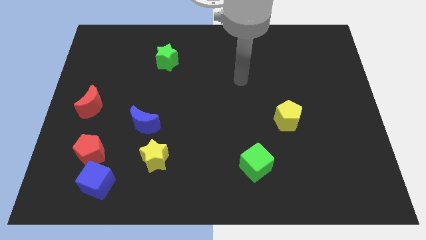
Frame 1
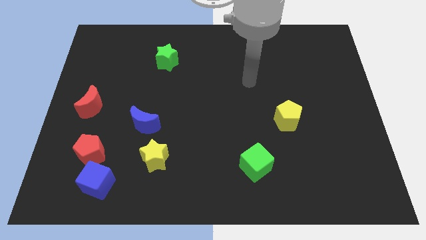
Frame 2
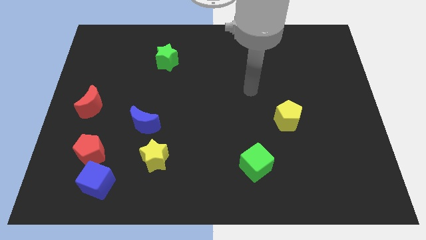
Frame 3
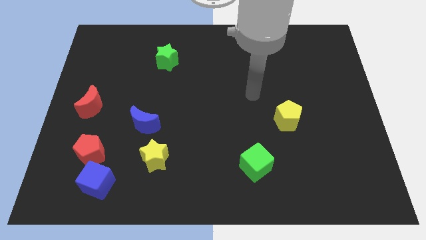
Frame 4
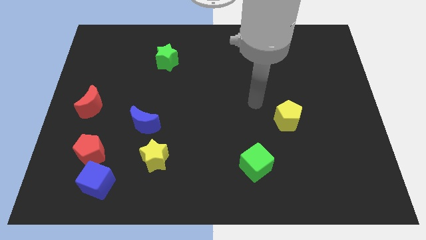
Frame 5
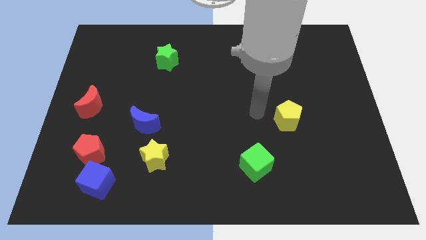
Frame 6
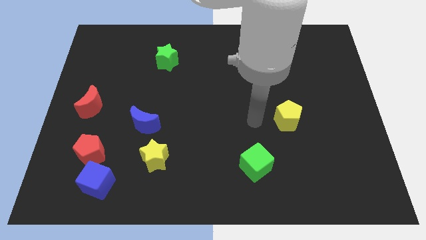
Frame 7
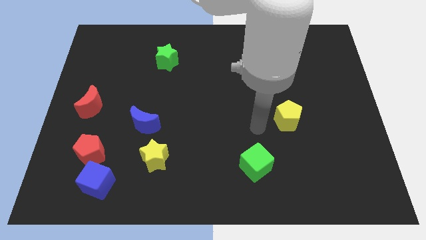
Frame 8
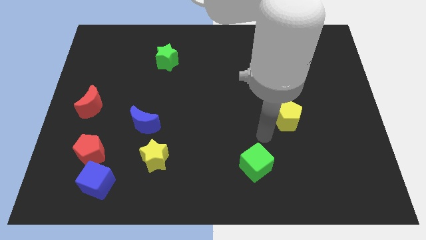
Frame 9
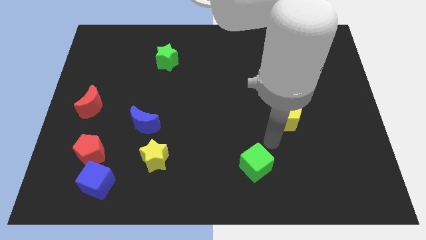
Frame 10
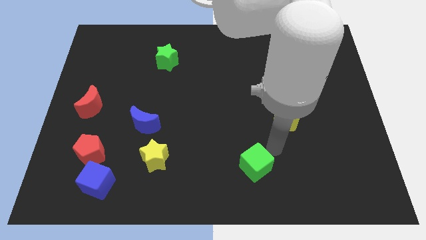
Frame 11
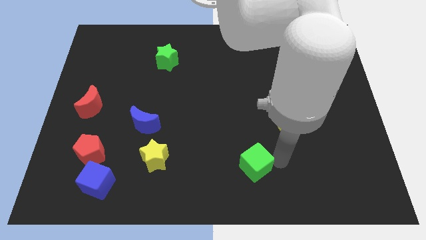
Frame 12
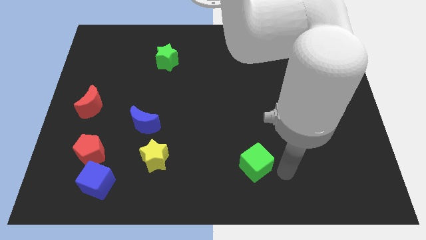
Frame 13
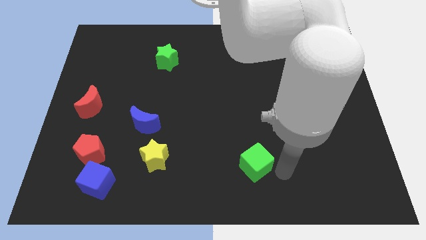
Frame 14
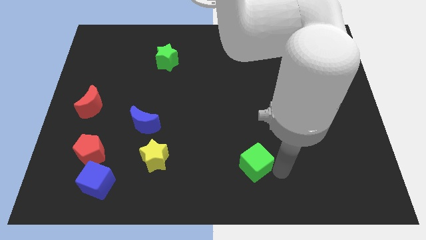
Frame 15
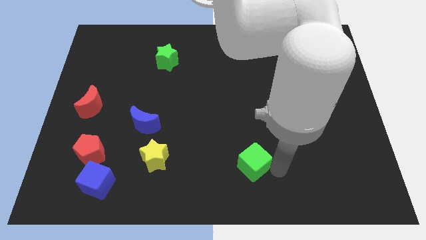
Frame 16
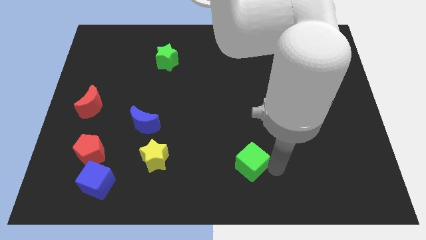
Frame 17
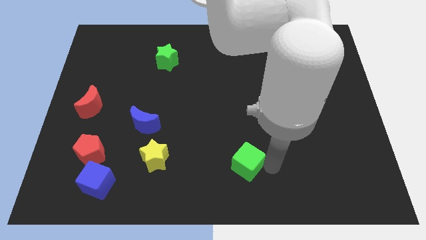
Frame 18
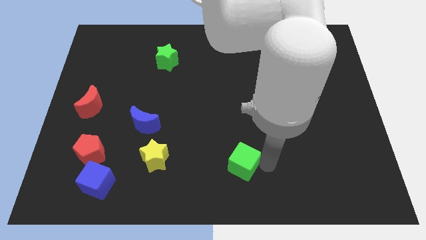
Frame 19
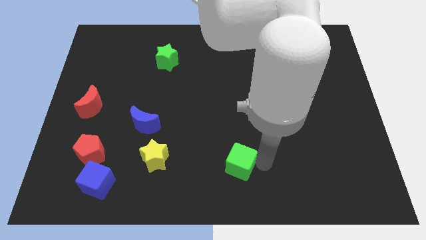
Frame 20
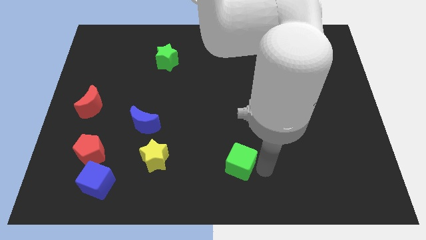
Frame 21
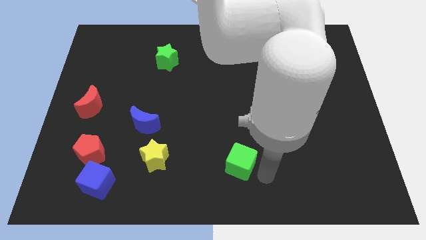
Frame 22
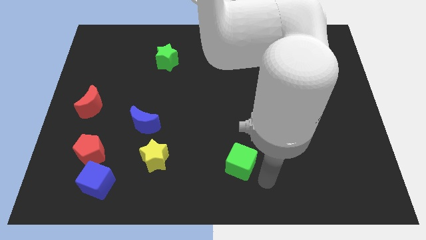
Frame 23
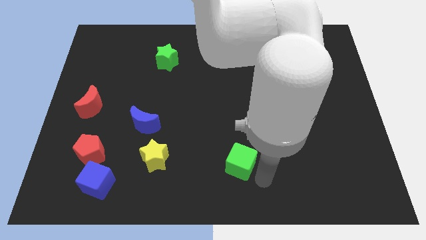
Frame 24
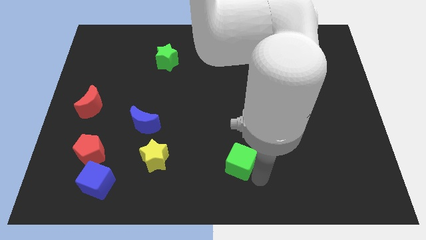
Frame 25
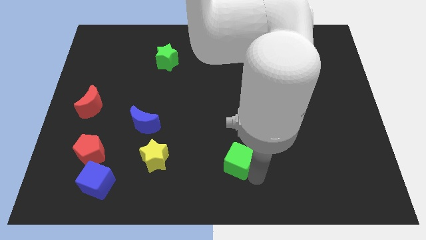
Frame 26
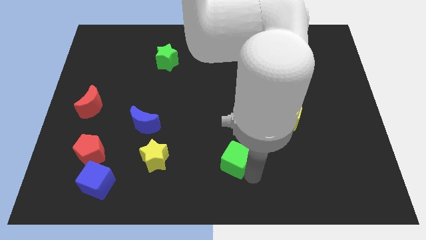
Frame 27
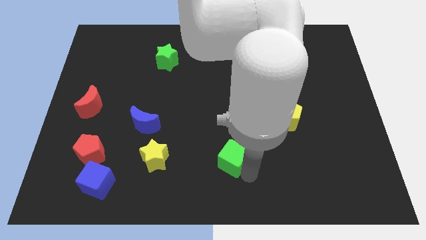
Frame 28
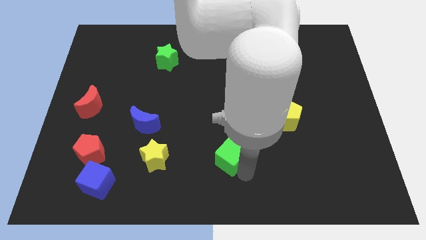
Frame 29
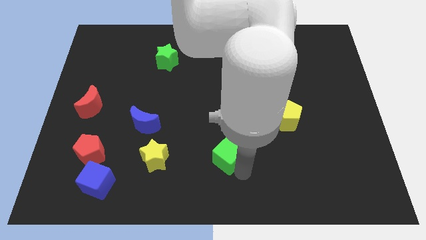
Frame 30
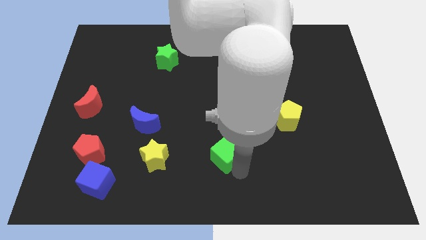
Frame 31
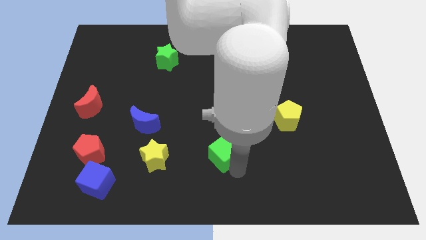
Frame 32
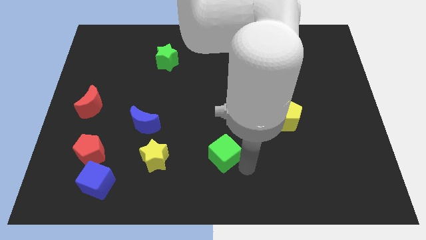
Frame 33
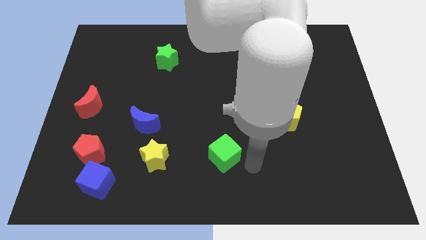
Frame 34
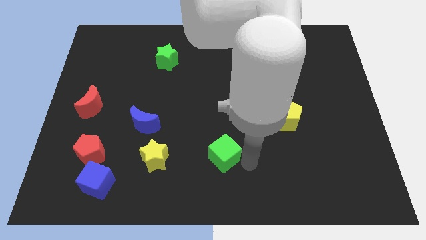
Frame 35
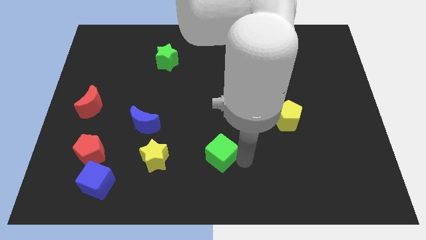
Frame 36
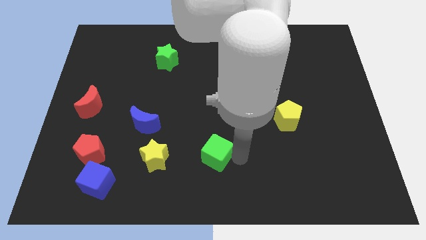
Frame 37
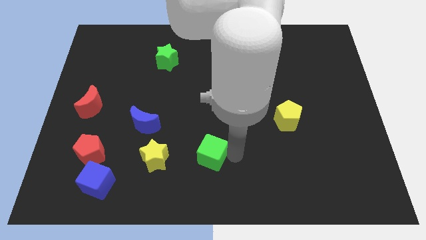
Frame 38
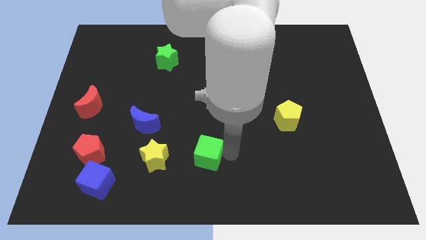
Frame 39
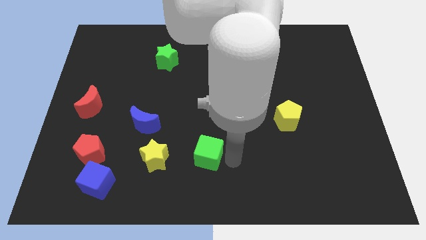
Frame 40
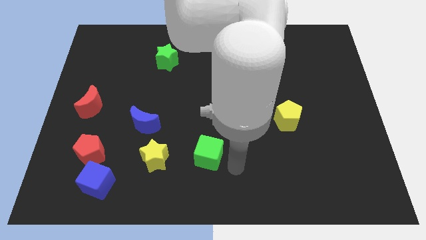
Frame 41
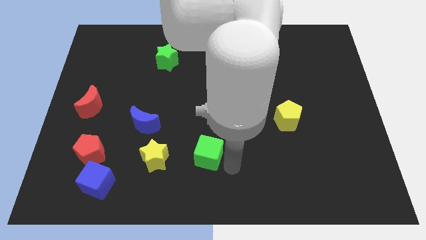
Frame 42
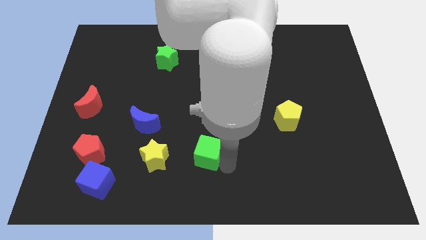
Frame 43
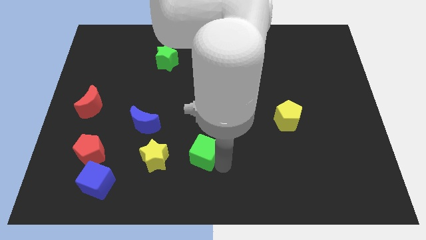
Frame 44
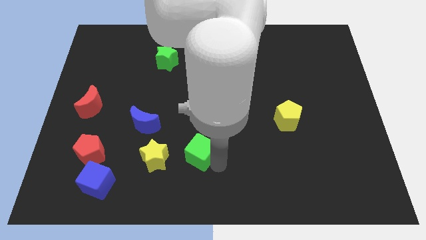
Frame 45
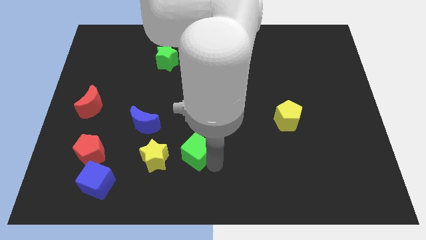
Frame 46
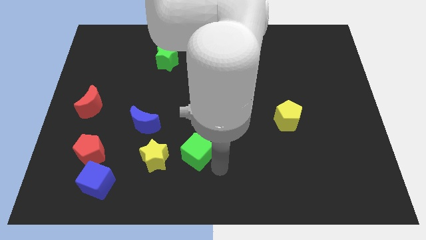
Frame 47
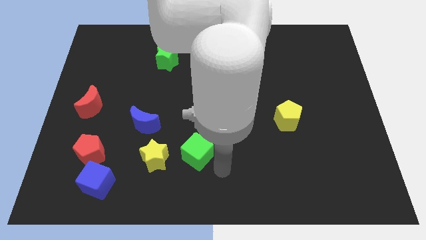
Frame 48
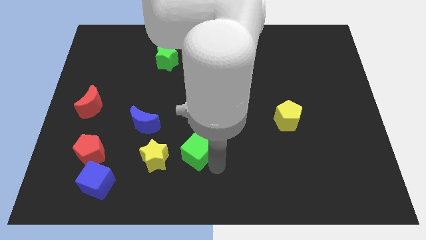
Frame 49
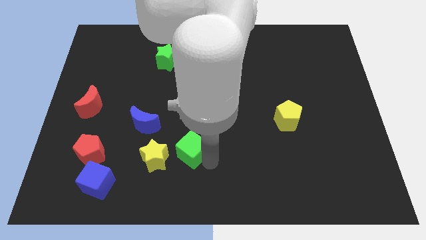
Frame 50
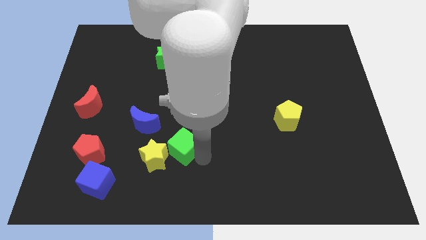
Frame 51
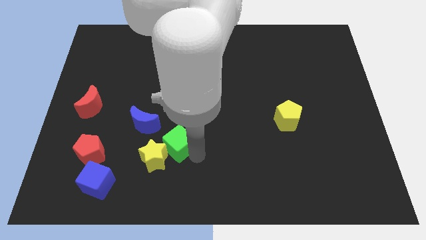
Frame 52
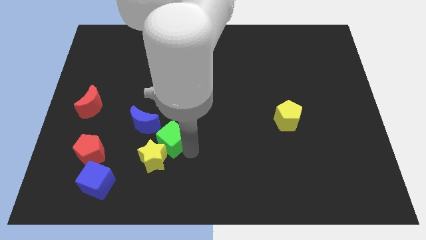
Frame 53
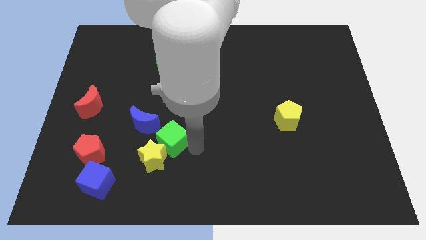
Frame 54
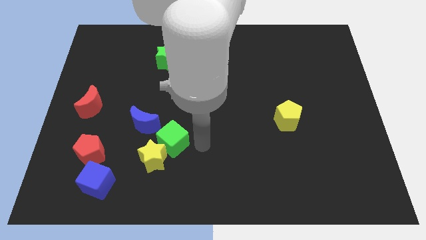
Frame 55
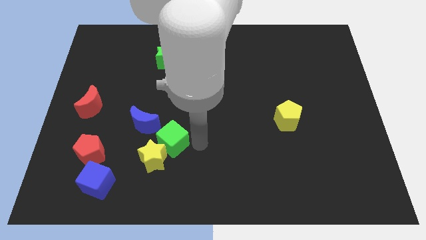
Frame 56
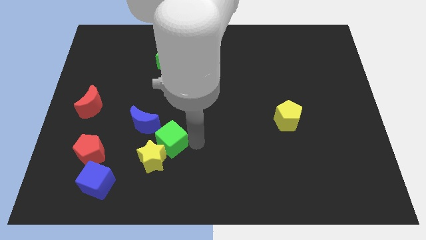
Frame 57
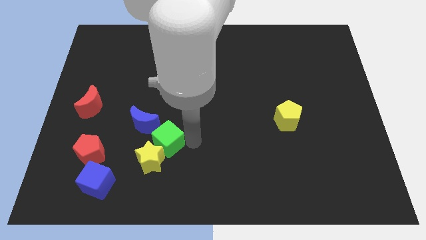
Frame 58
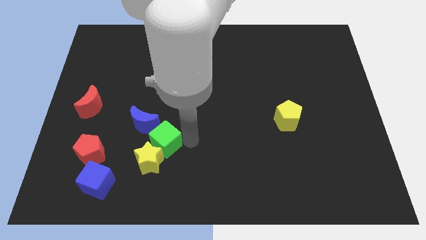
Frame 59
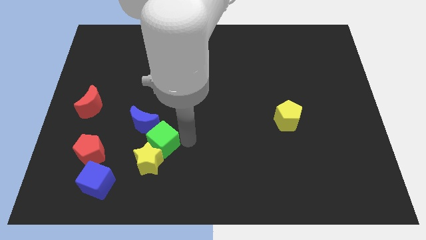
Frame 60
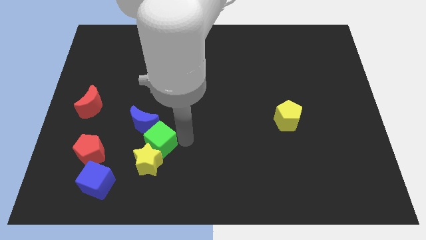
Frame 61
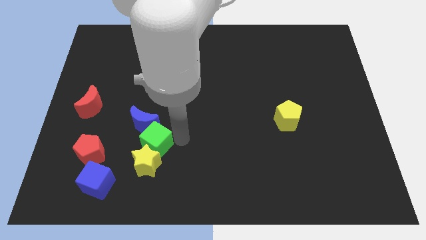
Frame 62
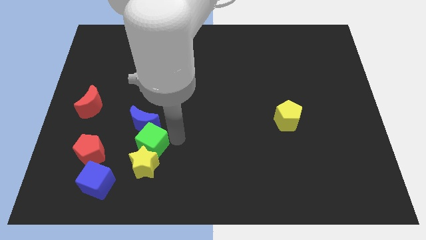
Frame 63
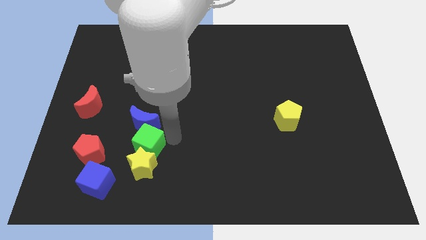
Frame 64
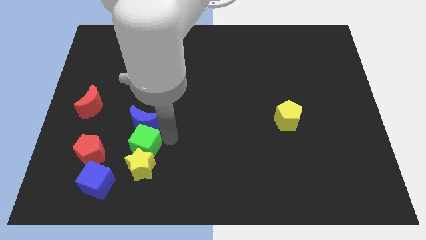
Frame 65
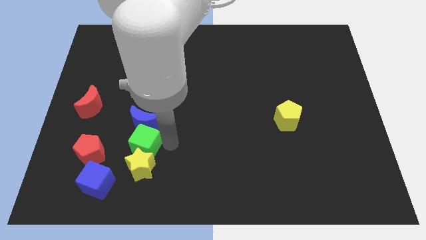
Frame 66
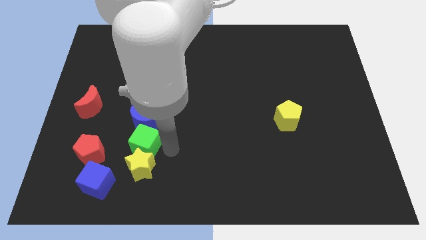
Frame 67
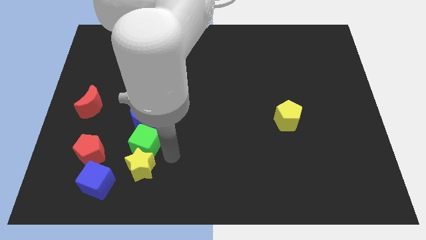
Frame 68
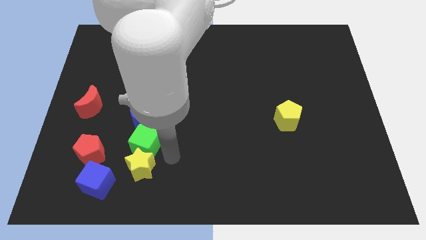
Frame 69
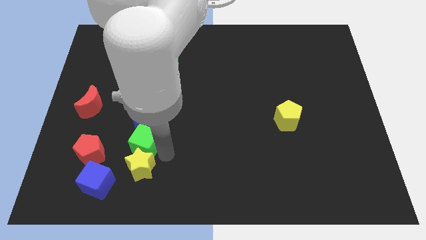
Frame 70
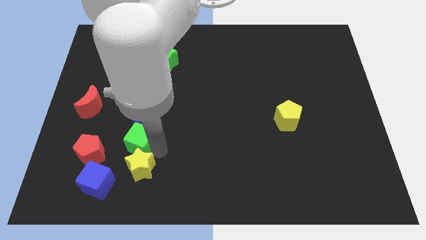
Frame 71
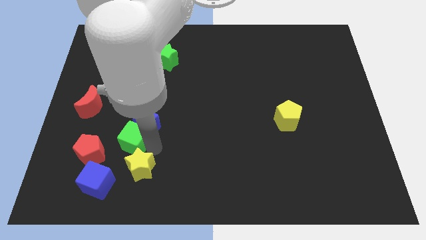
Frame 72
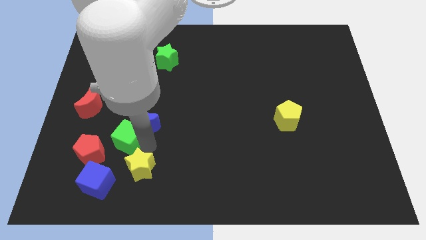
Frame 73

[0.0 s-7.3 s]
slide the green cube left of the blue moon
